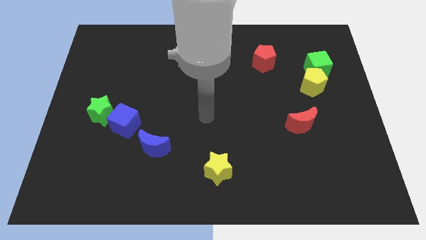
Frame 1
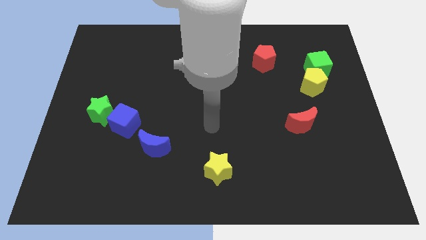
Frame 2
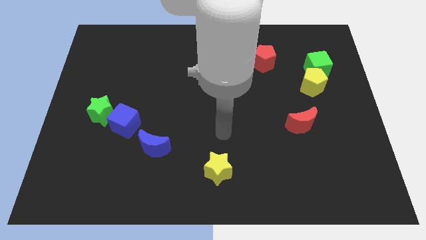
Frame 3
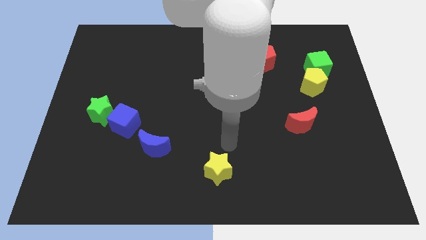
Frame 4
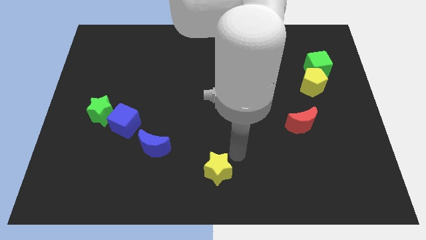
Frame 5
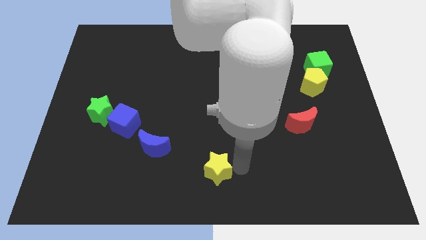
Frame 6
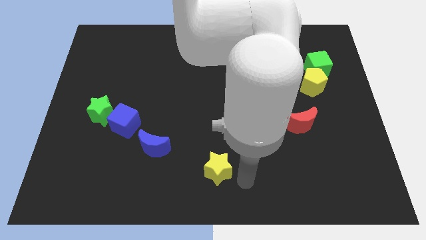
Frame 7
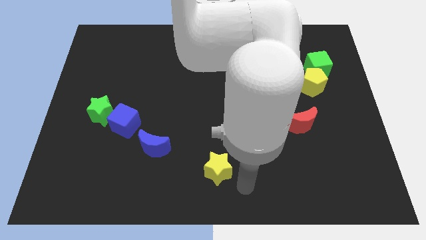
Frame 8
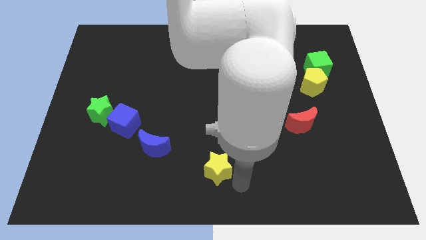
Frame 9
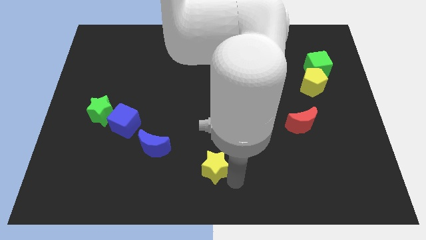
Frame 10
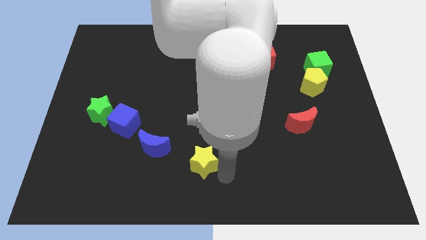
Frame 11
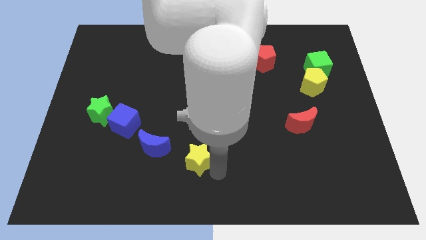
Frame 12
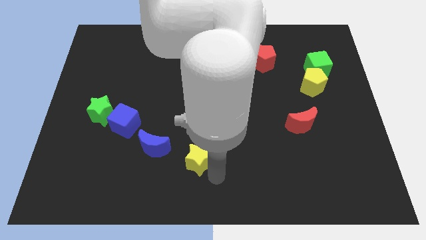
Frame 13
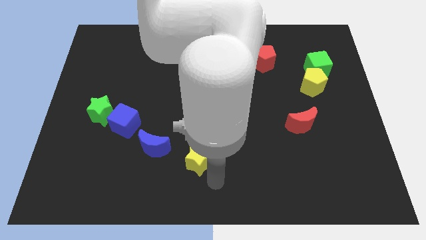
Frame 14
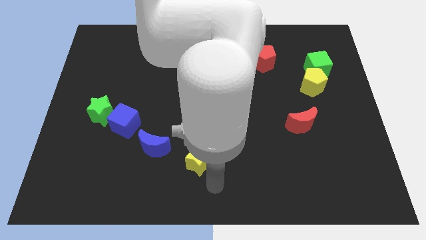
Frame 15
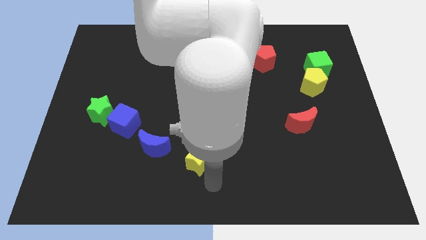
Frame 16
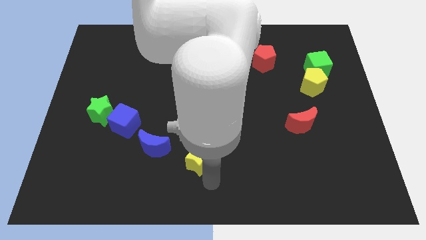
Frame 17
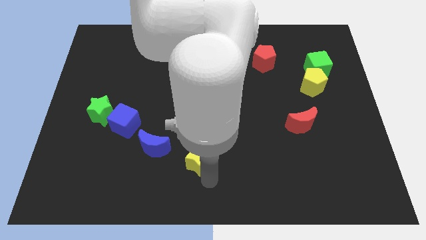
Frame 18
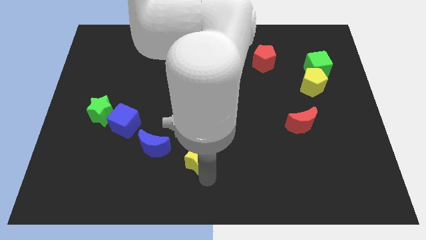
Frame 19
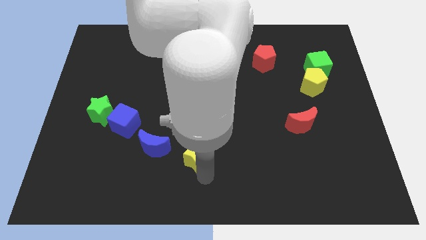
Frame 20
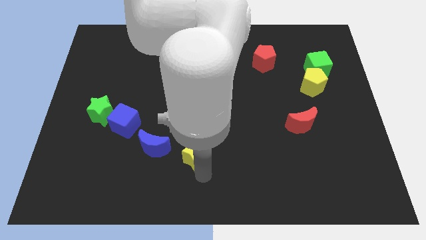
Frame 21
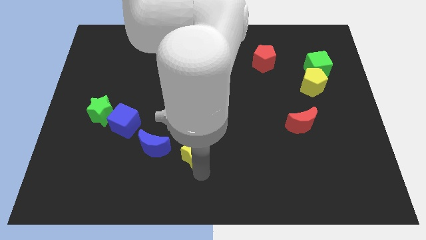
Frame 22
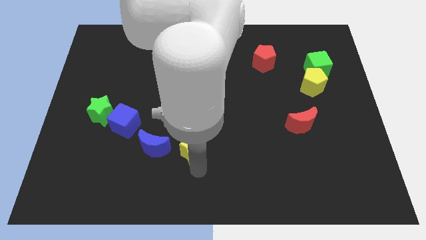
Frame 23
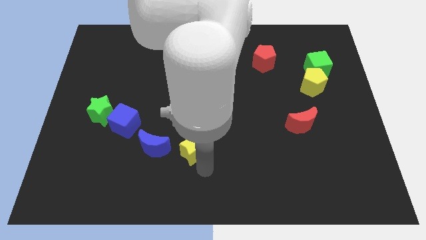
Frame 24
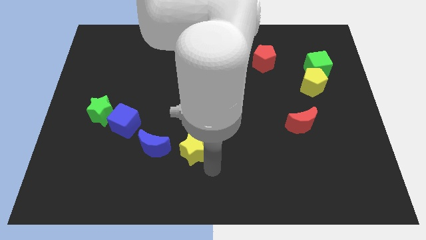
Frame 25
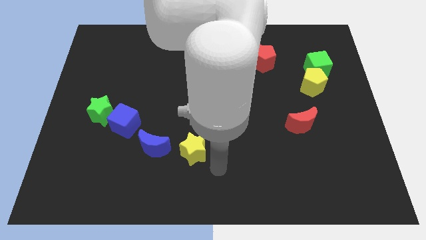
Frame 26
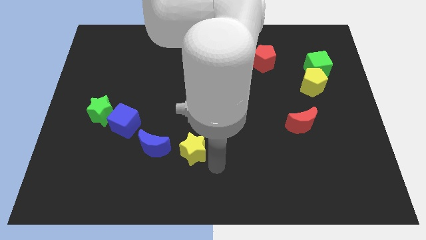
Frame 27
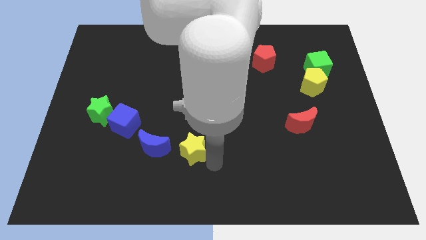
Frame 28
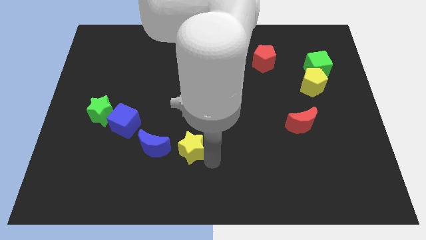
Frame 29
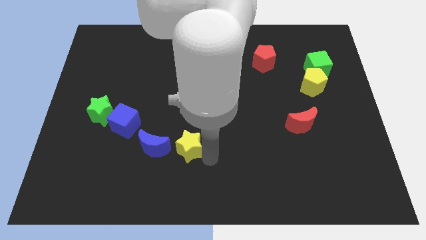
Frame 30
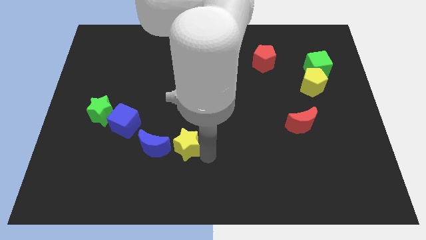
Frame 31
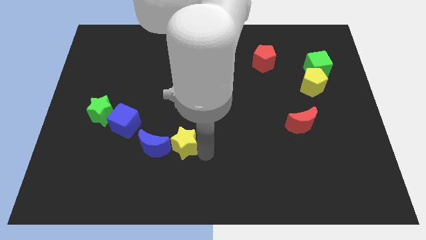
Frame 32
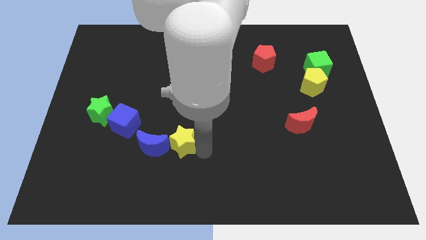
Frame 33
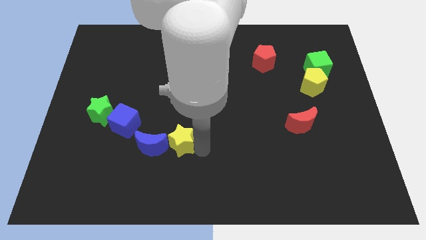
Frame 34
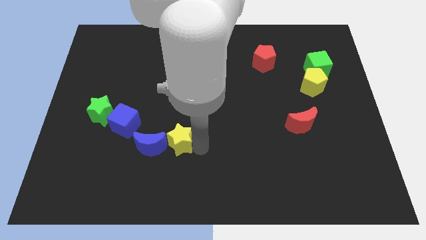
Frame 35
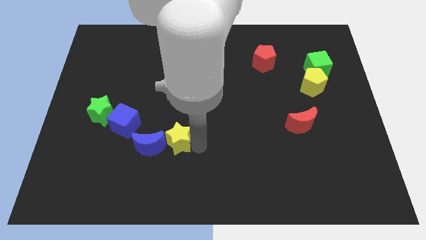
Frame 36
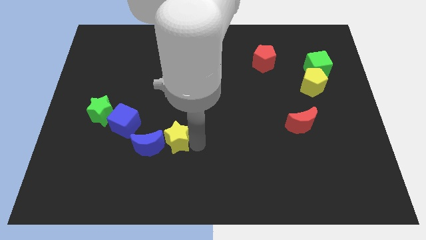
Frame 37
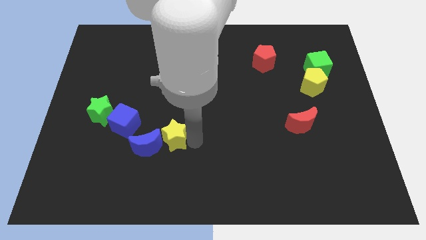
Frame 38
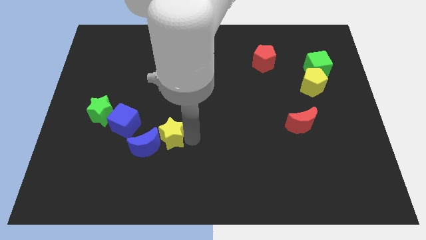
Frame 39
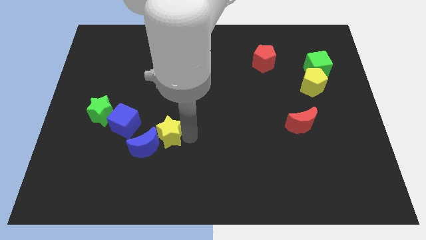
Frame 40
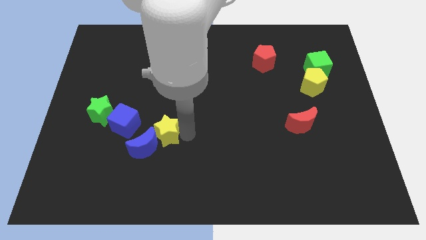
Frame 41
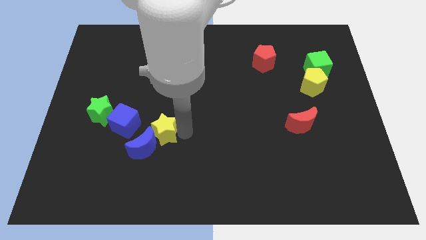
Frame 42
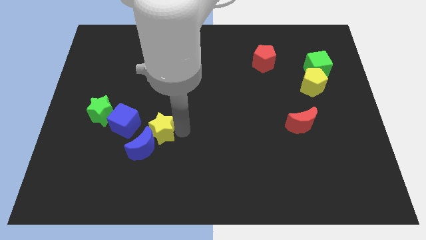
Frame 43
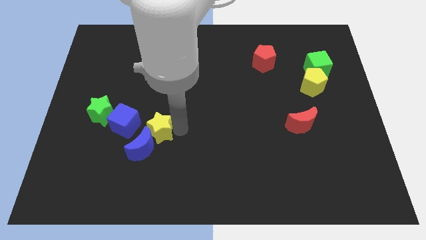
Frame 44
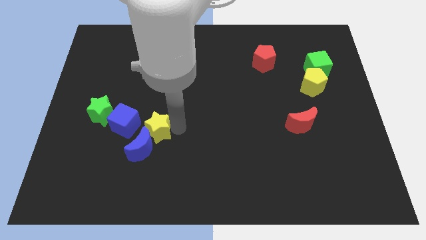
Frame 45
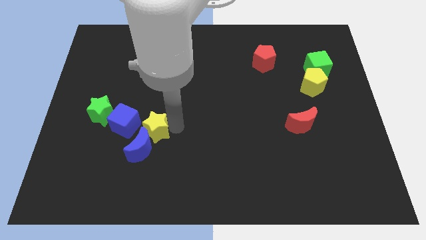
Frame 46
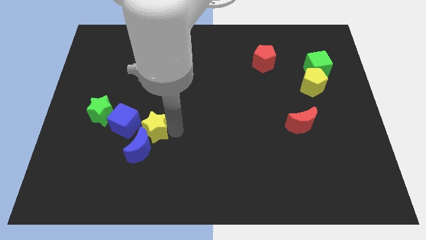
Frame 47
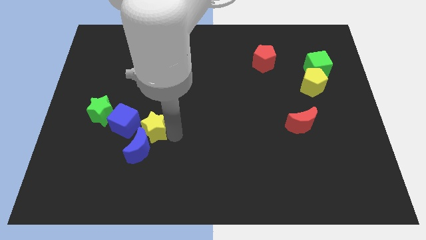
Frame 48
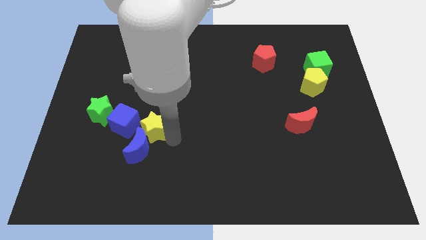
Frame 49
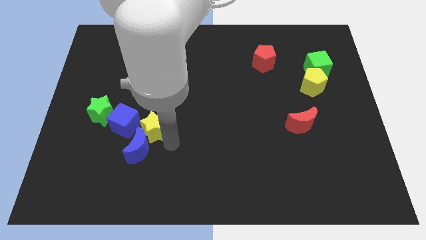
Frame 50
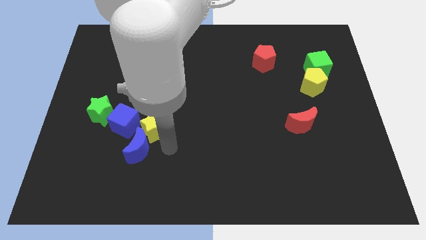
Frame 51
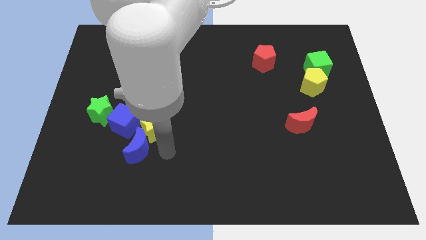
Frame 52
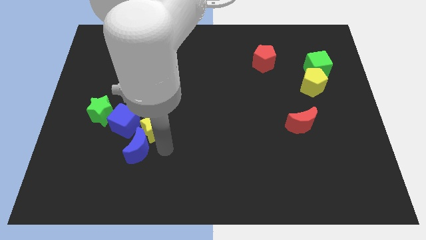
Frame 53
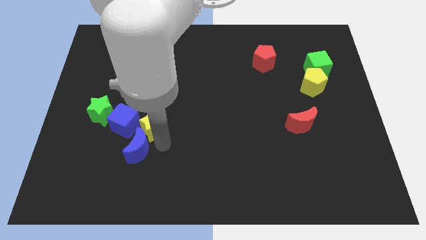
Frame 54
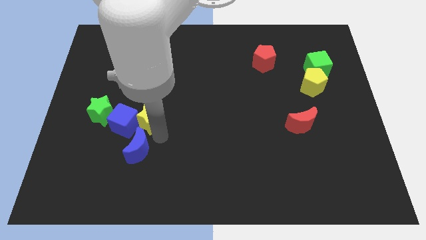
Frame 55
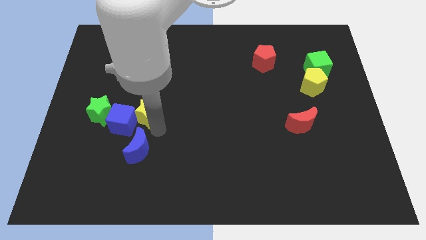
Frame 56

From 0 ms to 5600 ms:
move the yellow star up and then to the left

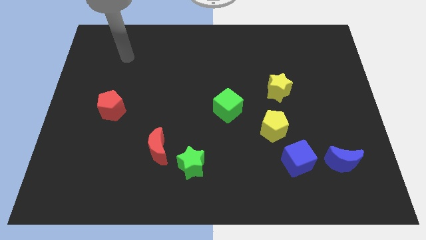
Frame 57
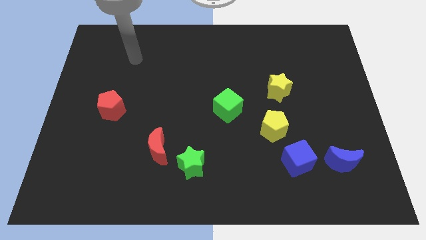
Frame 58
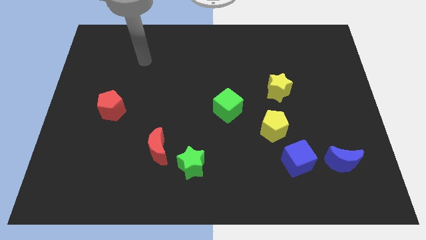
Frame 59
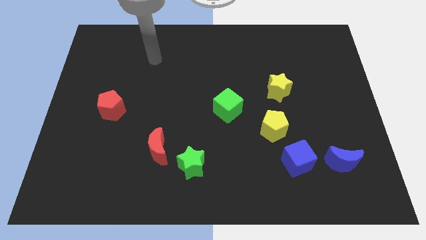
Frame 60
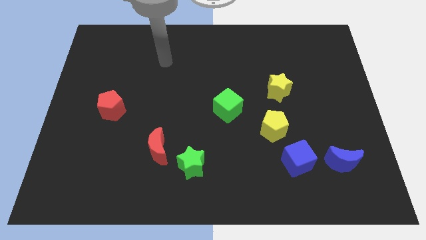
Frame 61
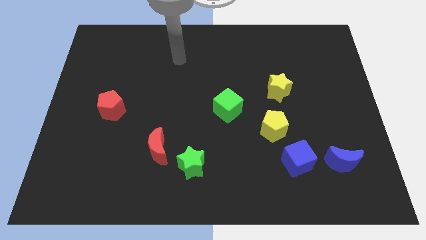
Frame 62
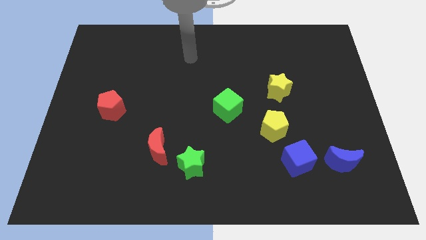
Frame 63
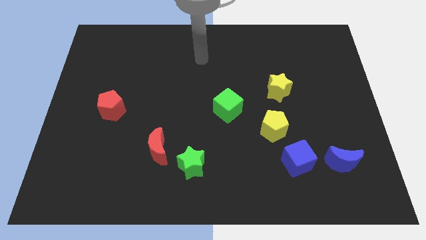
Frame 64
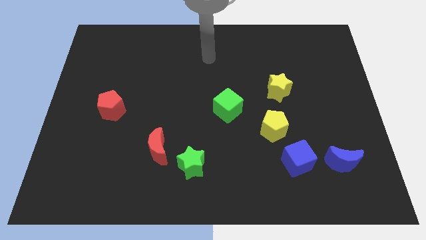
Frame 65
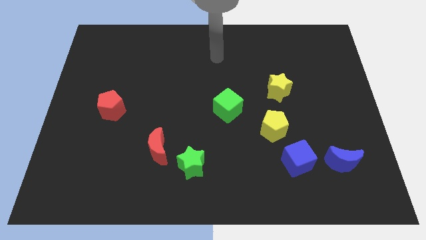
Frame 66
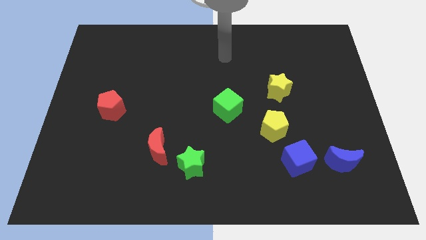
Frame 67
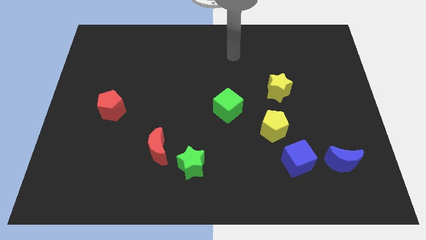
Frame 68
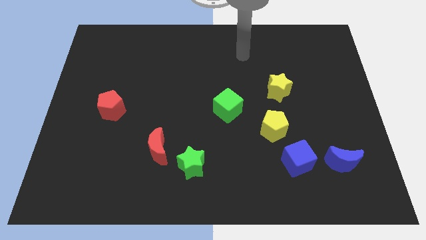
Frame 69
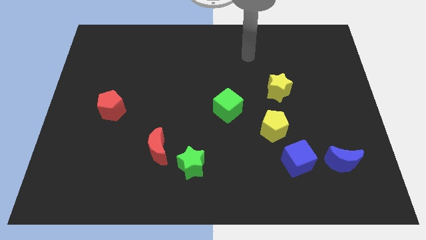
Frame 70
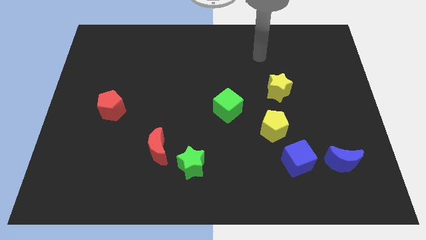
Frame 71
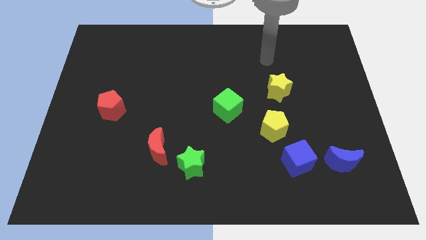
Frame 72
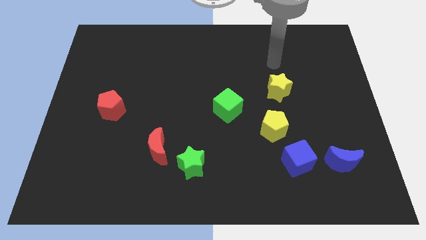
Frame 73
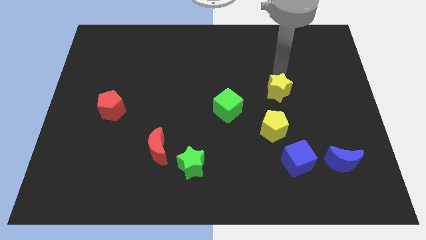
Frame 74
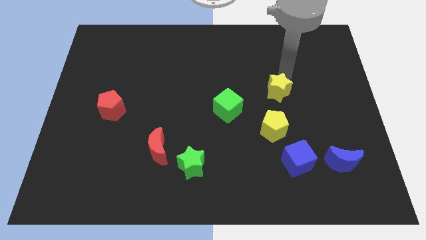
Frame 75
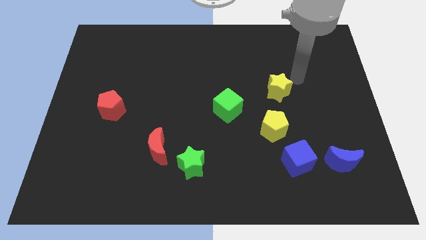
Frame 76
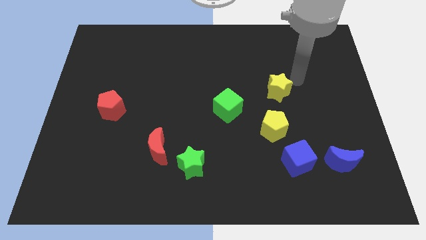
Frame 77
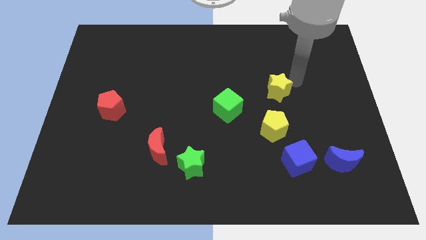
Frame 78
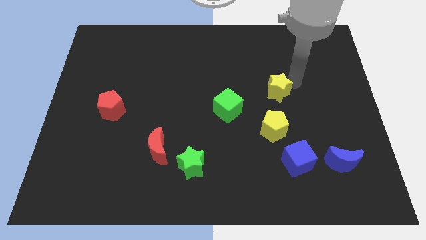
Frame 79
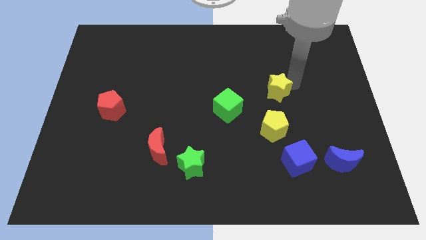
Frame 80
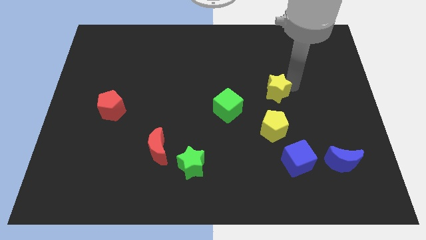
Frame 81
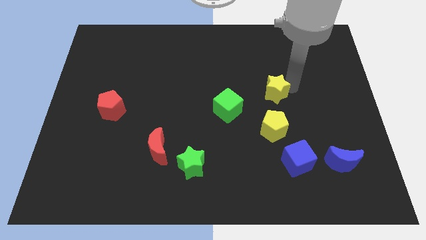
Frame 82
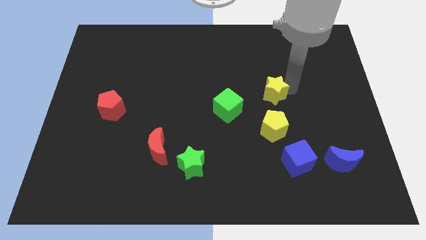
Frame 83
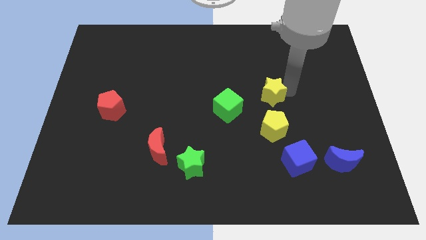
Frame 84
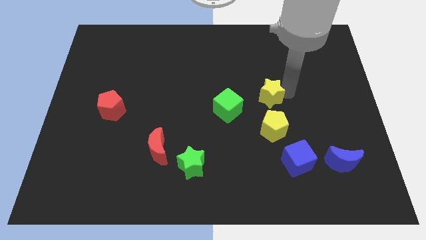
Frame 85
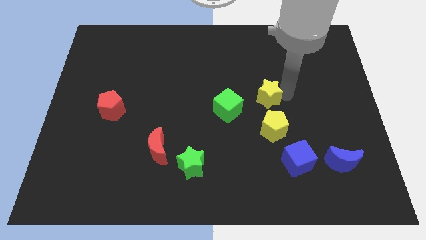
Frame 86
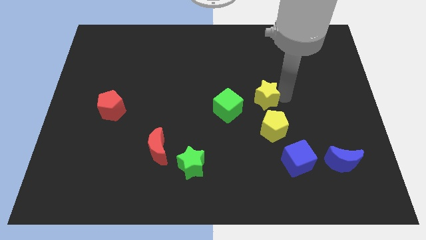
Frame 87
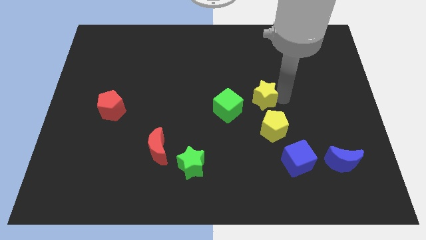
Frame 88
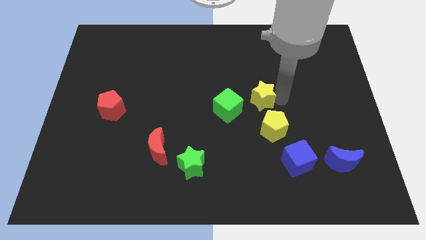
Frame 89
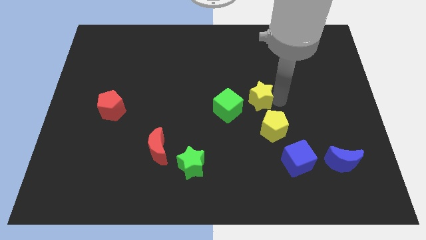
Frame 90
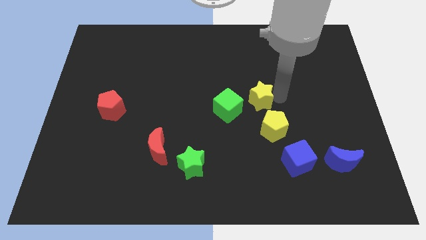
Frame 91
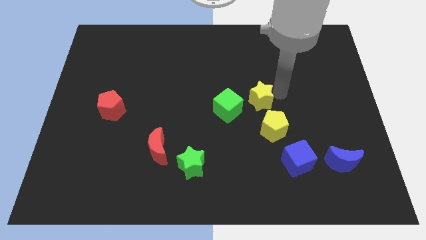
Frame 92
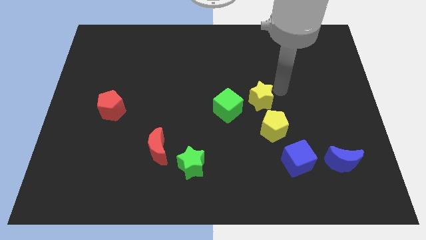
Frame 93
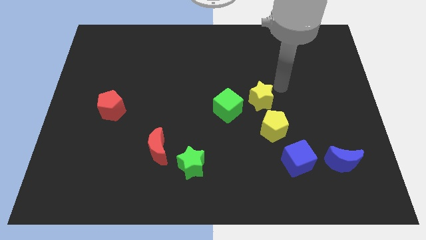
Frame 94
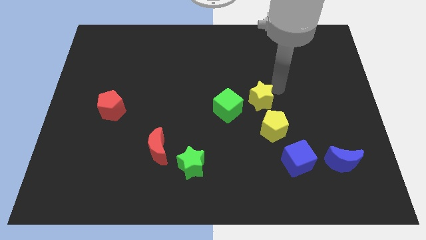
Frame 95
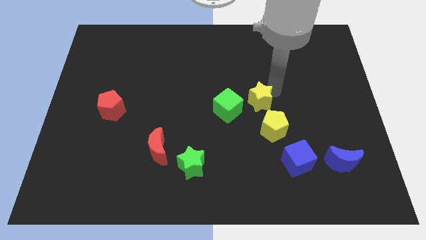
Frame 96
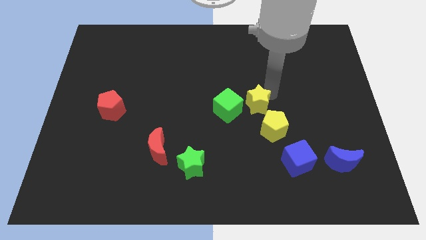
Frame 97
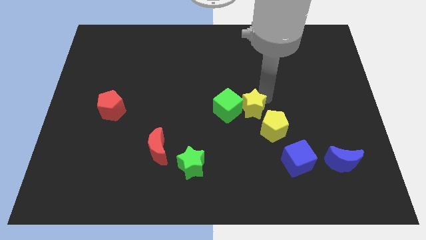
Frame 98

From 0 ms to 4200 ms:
push the yellow star a little bit down and to the left diagonally
